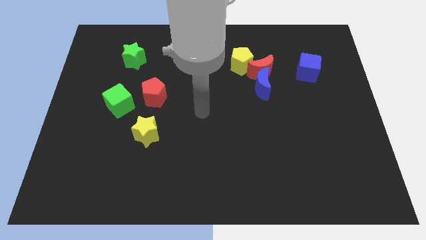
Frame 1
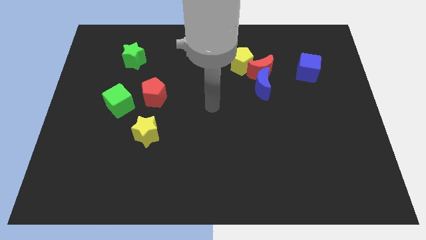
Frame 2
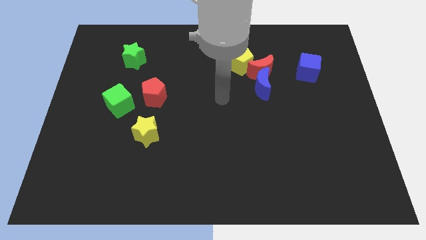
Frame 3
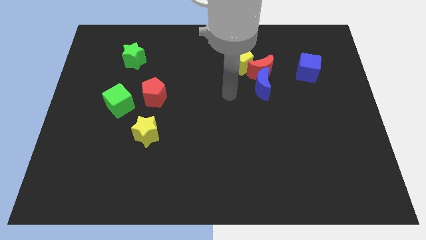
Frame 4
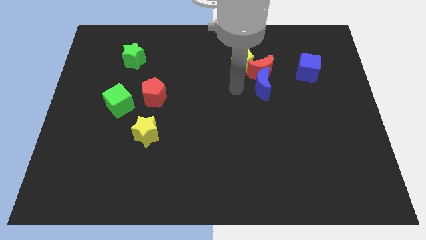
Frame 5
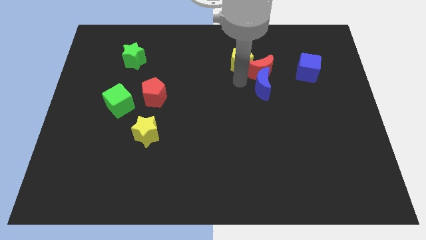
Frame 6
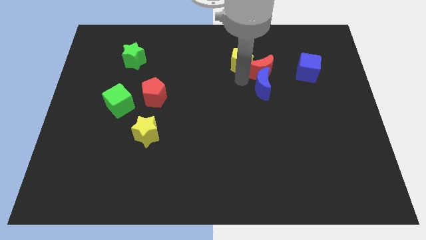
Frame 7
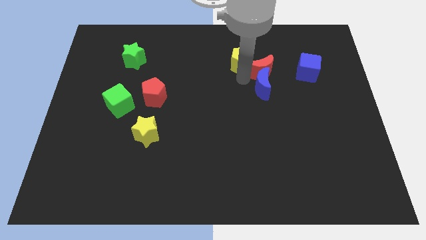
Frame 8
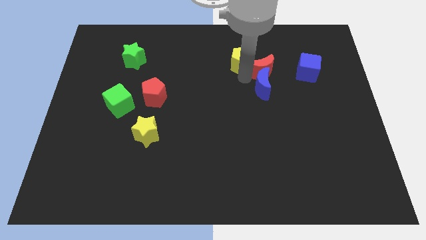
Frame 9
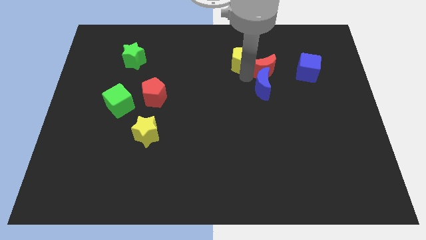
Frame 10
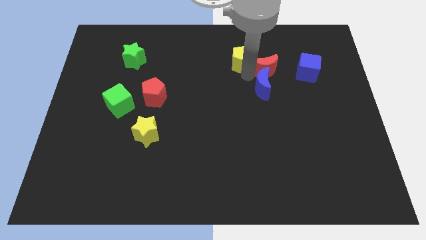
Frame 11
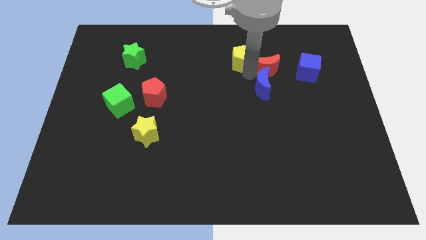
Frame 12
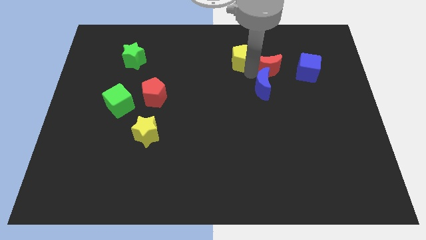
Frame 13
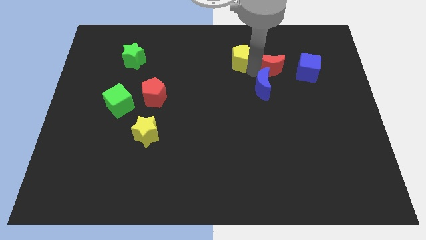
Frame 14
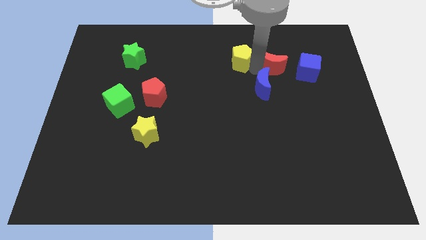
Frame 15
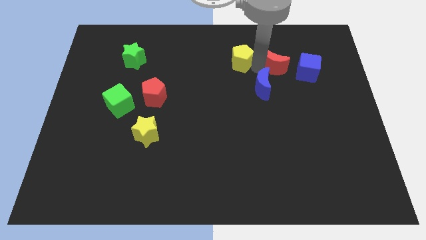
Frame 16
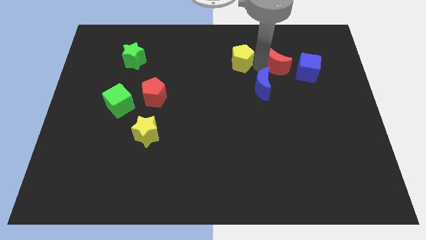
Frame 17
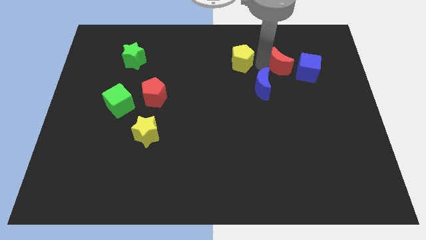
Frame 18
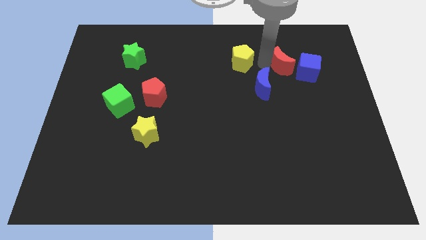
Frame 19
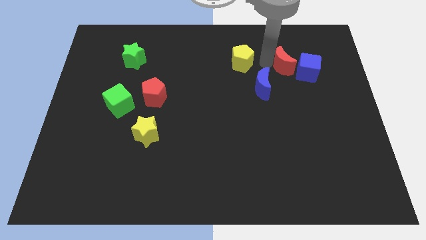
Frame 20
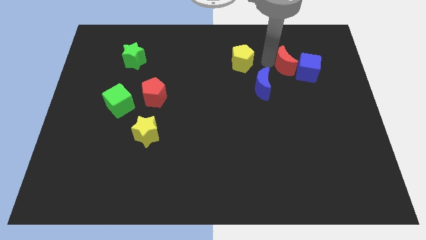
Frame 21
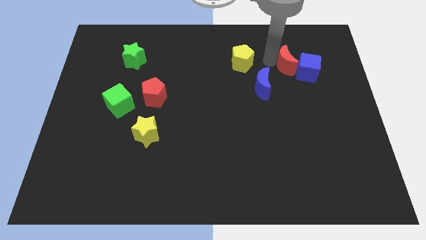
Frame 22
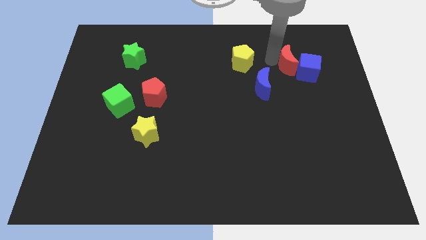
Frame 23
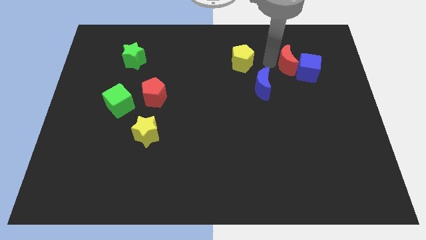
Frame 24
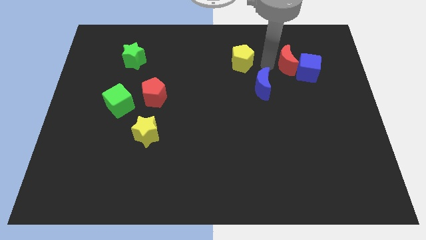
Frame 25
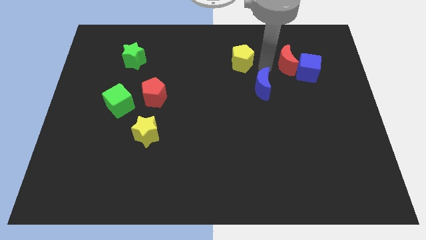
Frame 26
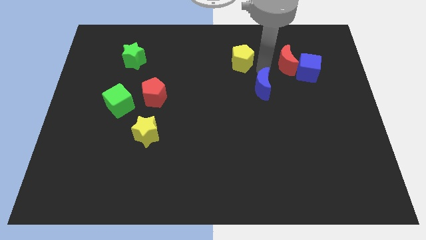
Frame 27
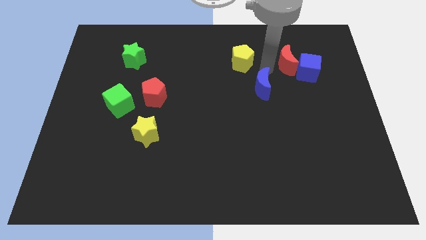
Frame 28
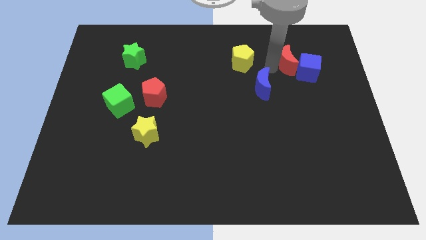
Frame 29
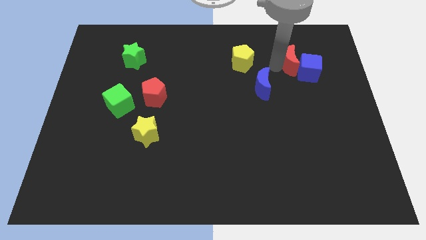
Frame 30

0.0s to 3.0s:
move the red moon away from the blue moon and yellow pentagon

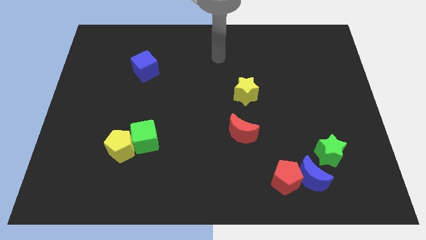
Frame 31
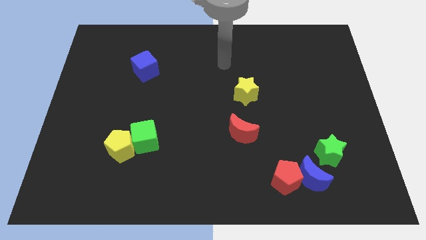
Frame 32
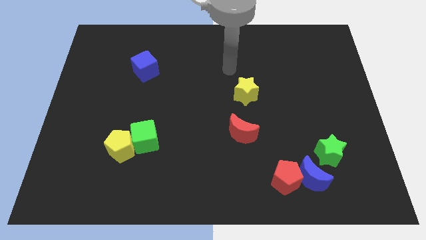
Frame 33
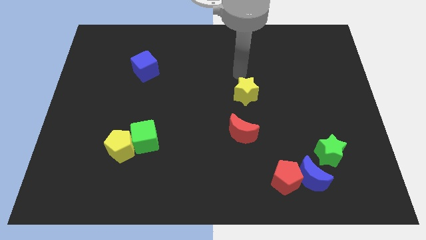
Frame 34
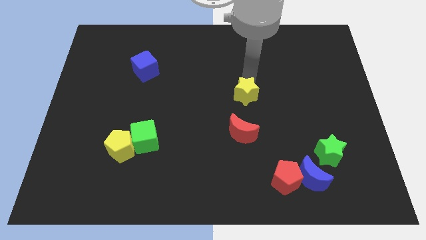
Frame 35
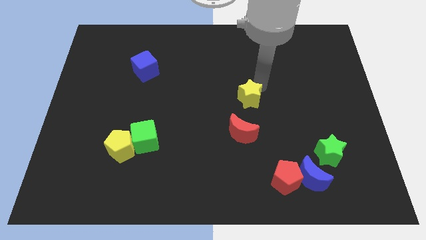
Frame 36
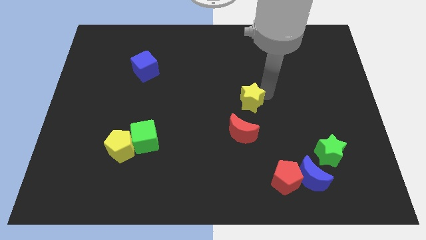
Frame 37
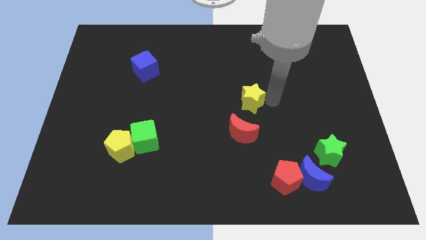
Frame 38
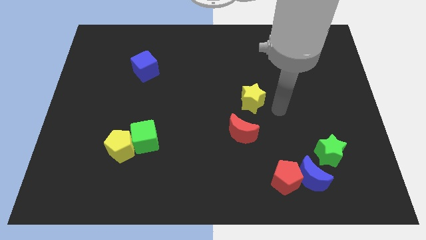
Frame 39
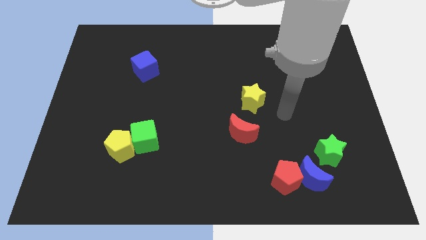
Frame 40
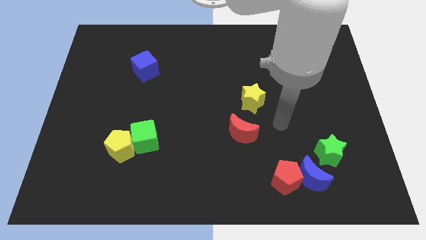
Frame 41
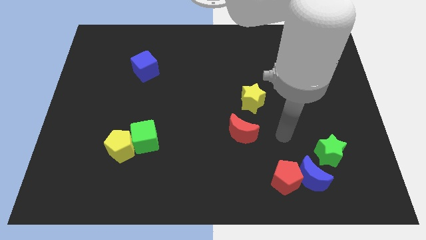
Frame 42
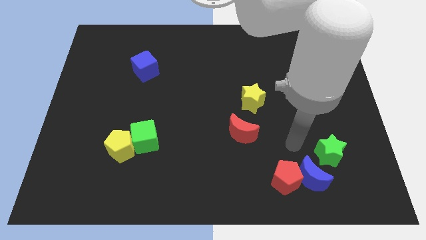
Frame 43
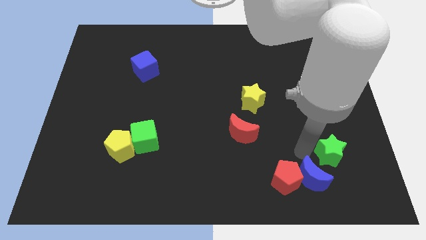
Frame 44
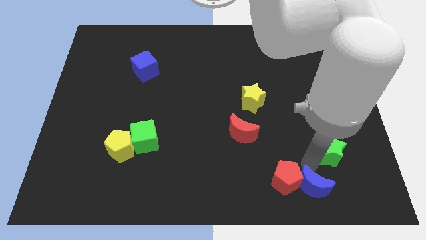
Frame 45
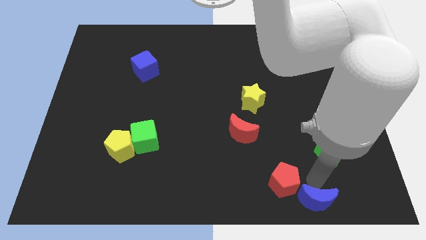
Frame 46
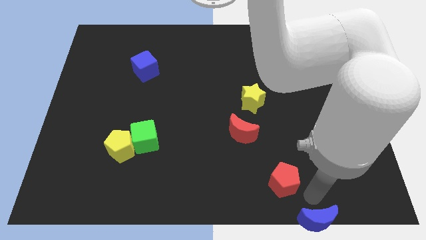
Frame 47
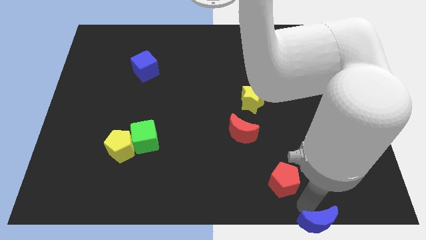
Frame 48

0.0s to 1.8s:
move the red pentagon away from the blue moon

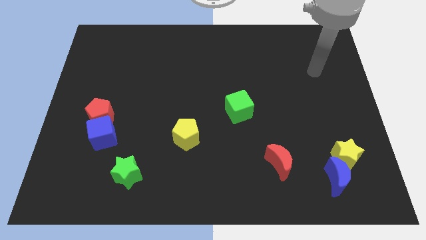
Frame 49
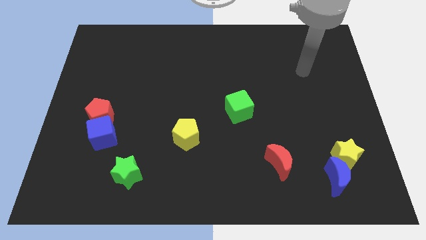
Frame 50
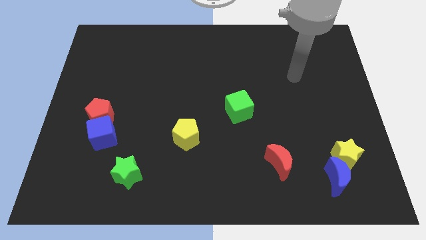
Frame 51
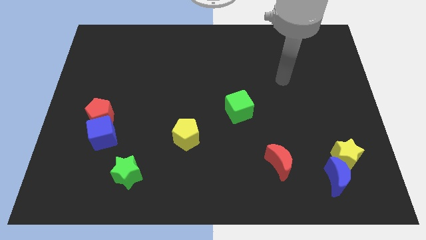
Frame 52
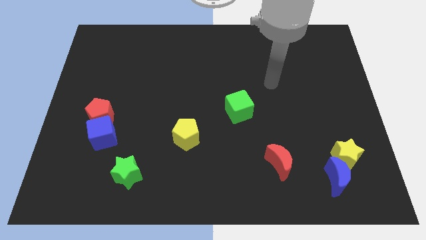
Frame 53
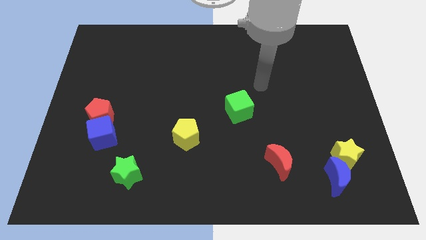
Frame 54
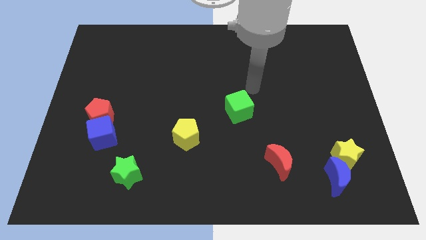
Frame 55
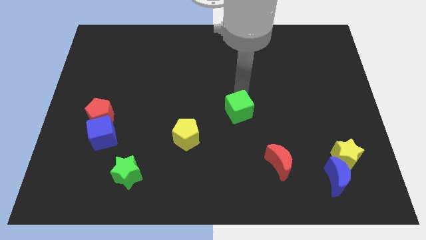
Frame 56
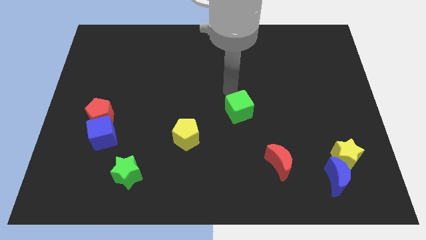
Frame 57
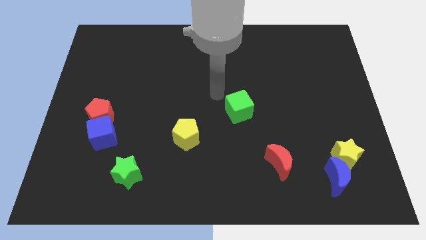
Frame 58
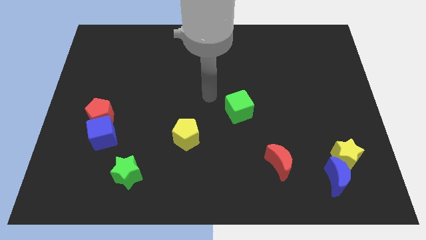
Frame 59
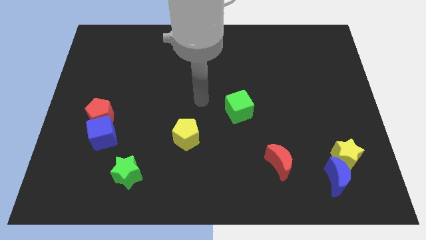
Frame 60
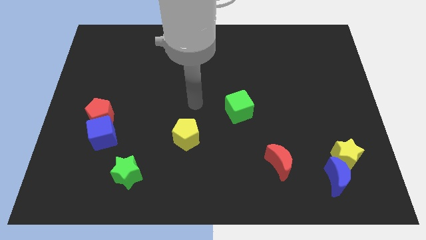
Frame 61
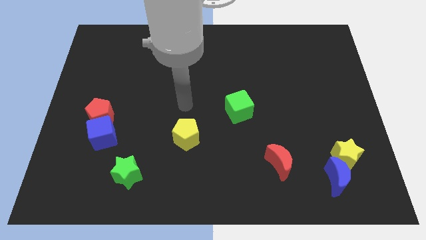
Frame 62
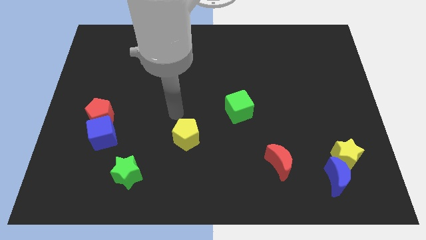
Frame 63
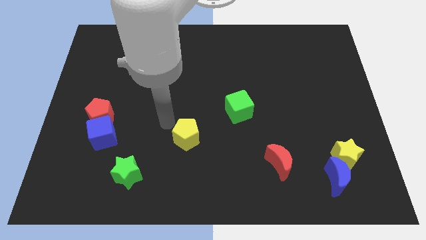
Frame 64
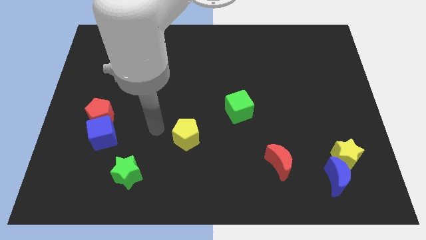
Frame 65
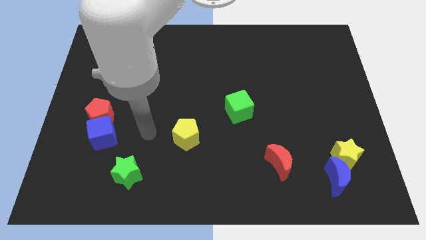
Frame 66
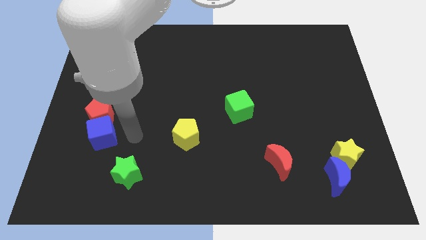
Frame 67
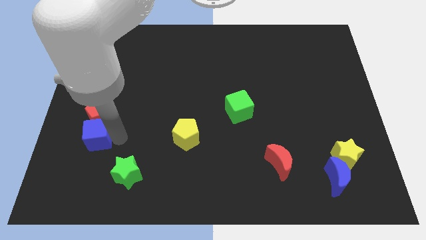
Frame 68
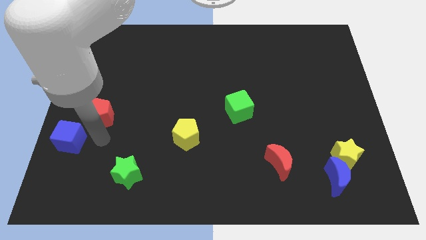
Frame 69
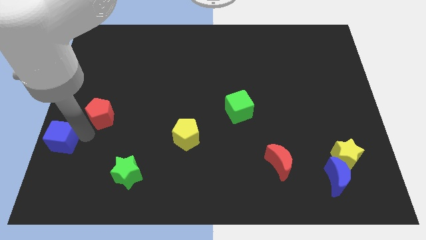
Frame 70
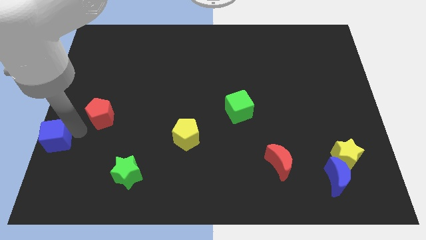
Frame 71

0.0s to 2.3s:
pull the red pentagon apart from the blue cube

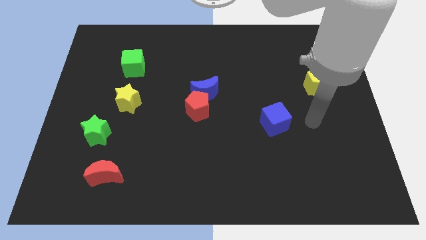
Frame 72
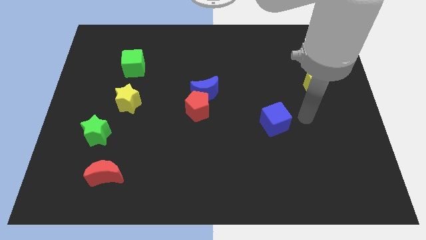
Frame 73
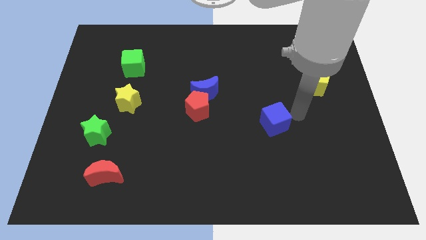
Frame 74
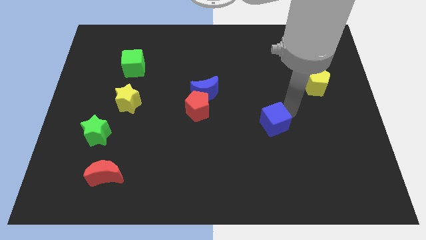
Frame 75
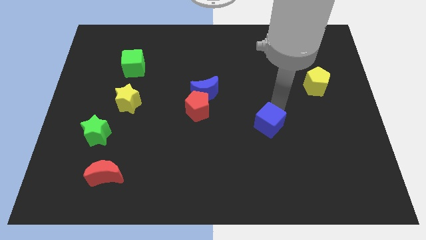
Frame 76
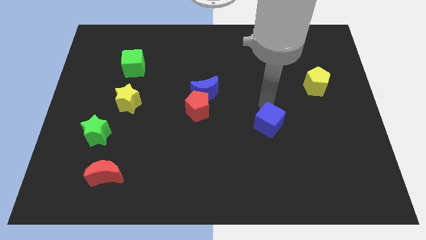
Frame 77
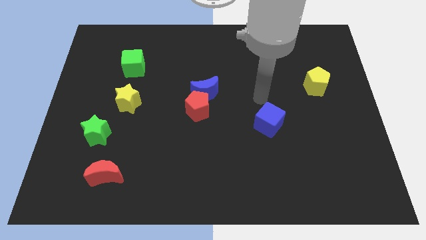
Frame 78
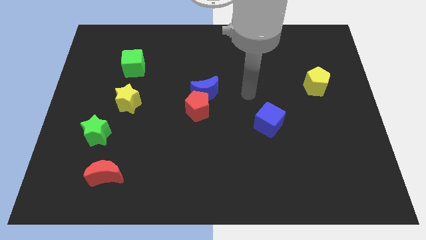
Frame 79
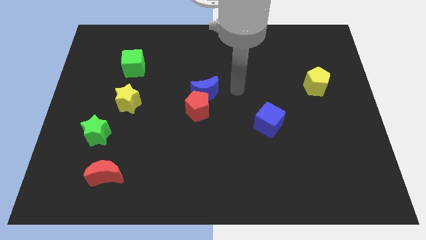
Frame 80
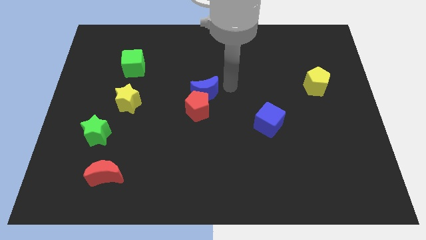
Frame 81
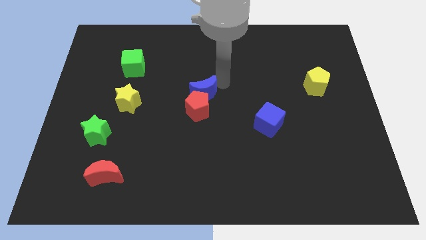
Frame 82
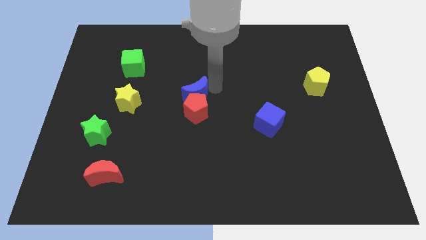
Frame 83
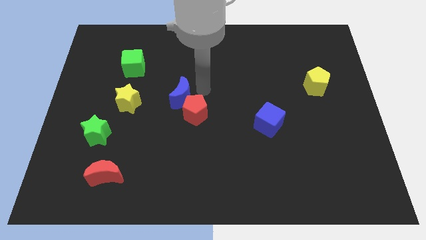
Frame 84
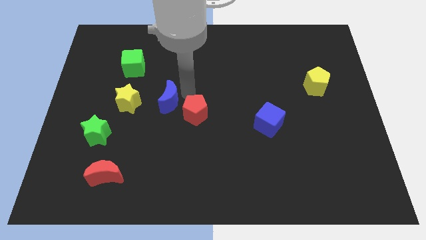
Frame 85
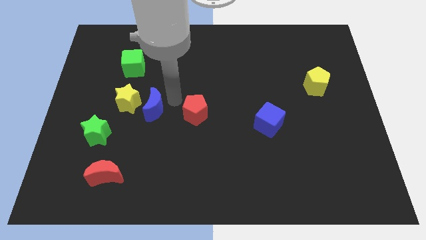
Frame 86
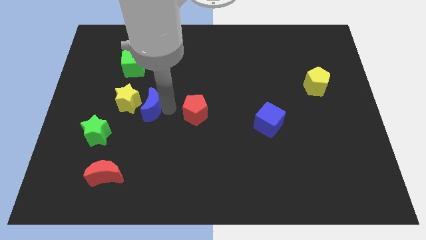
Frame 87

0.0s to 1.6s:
separate the red pentagon from the blue moon

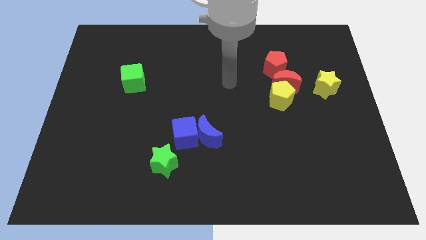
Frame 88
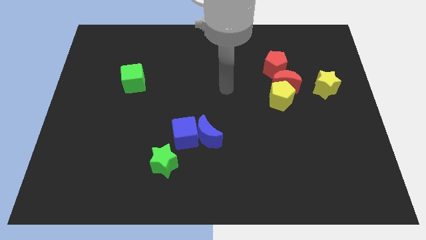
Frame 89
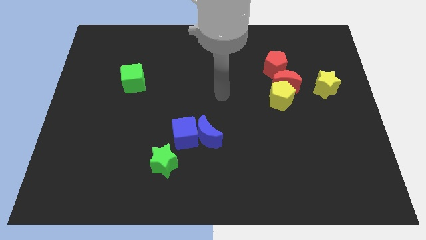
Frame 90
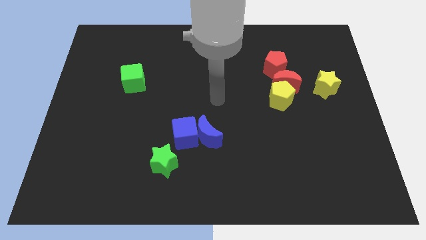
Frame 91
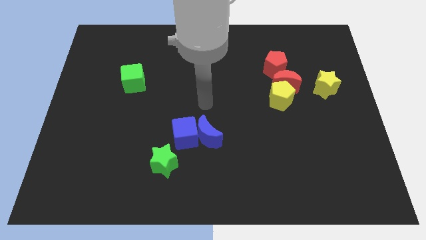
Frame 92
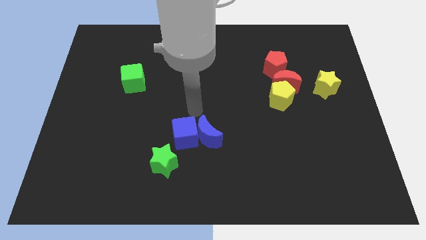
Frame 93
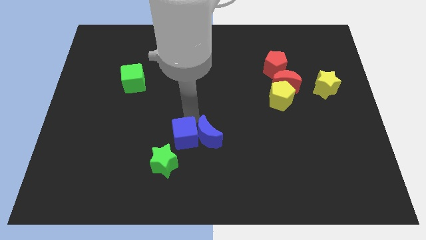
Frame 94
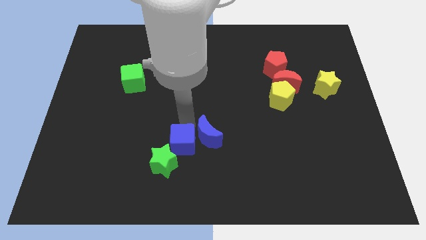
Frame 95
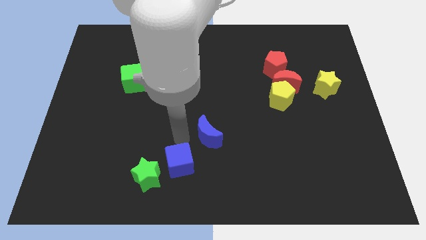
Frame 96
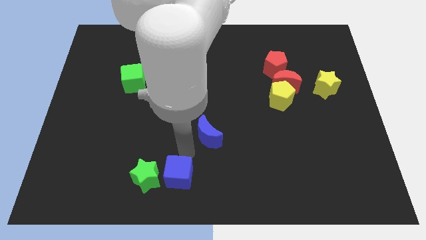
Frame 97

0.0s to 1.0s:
pull the blue moon apart from the blue cube
